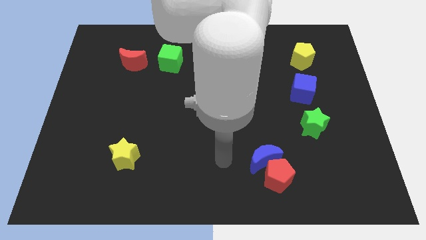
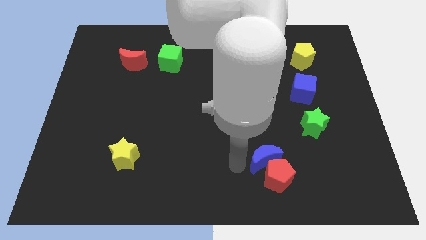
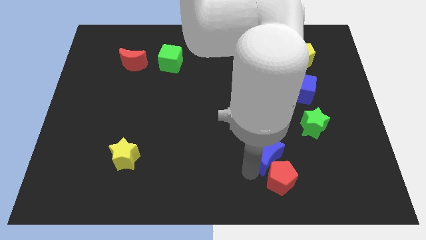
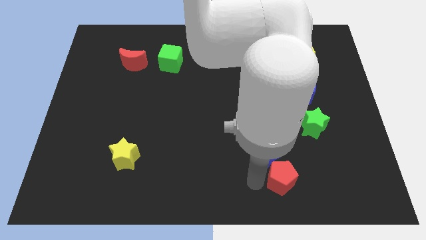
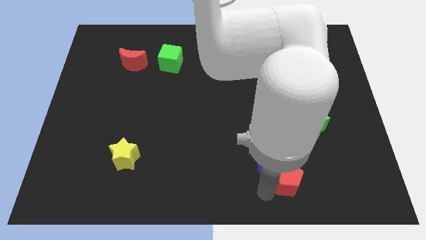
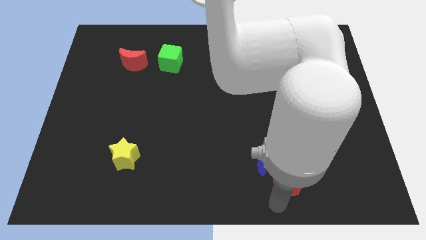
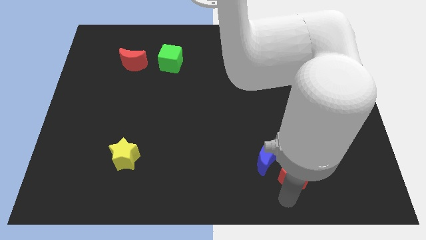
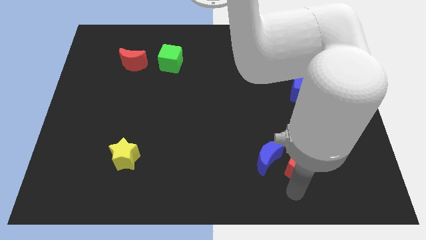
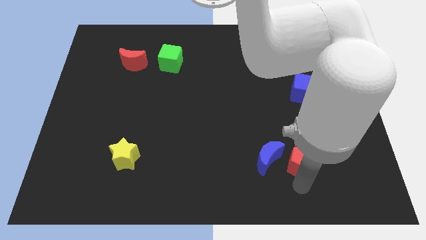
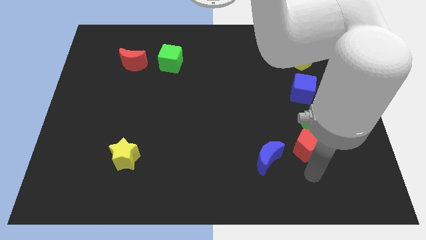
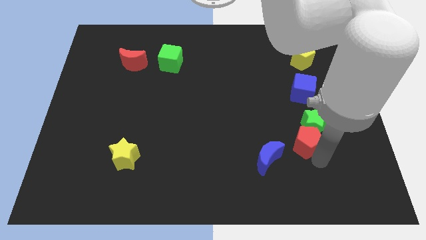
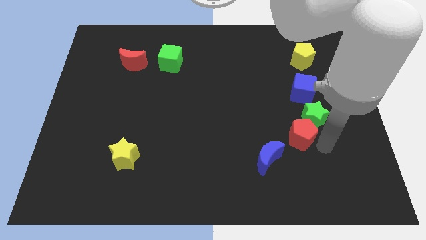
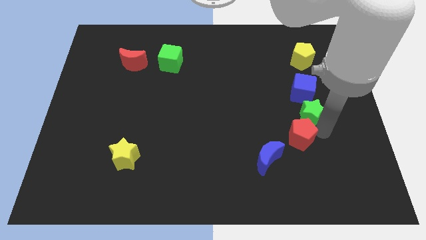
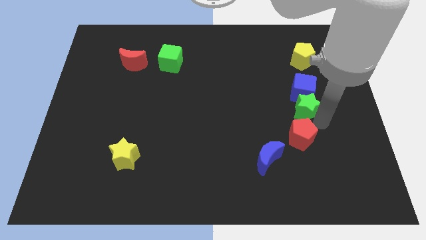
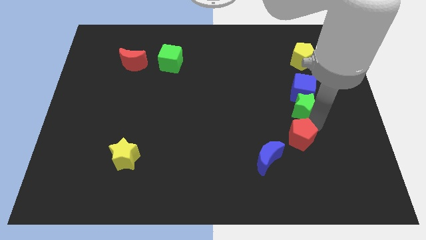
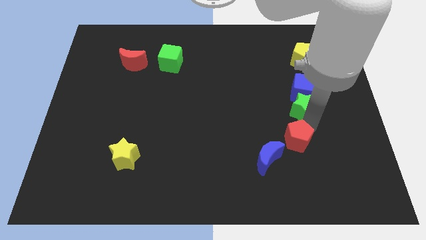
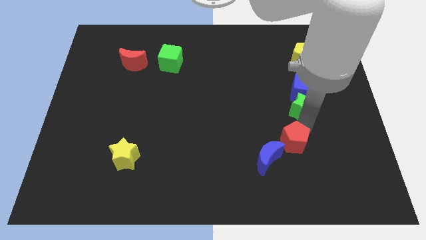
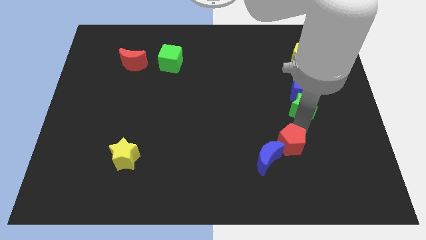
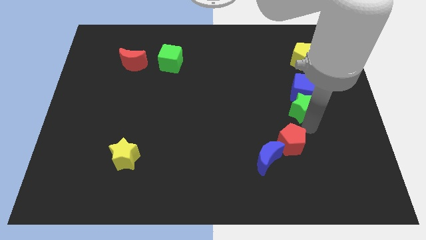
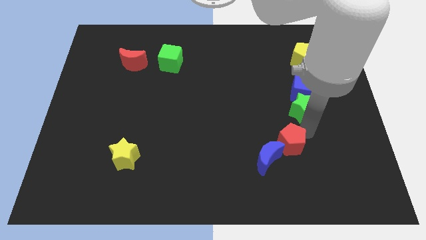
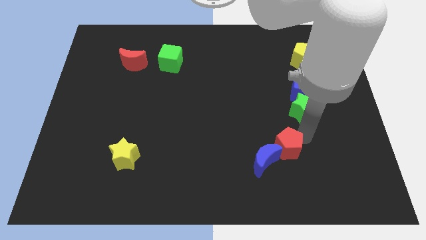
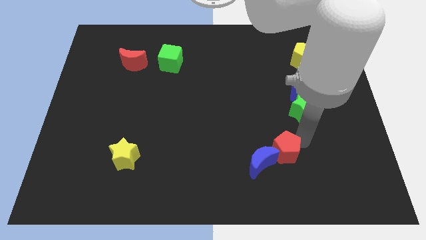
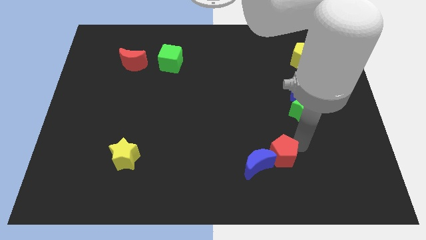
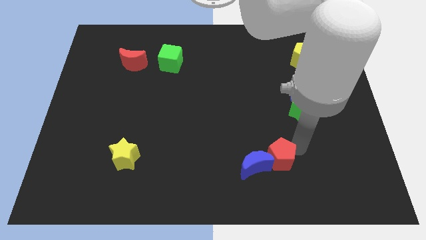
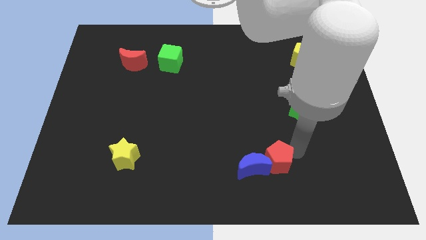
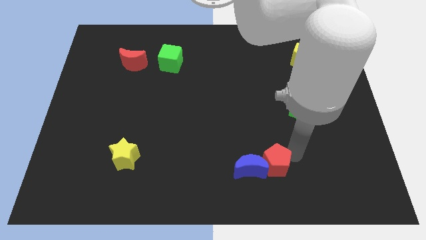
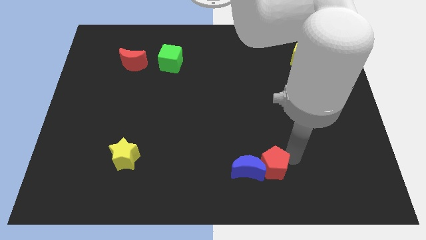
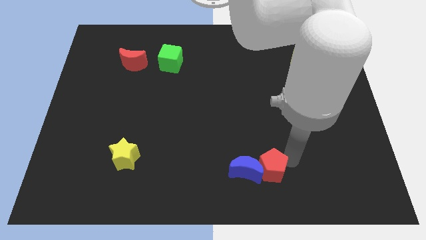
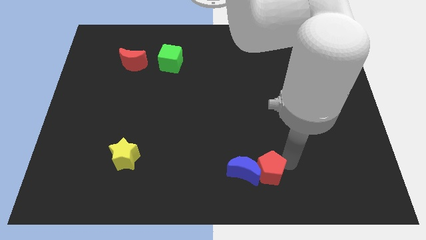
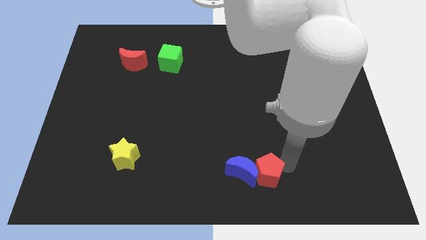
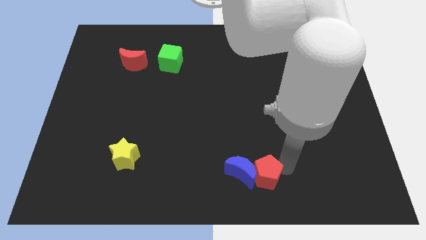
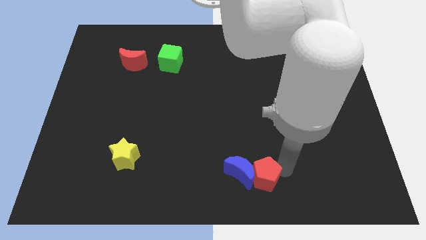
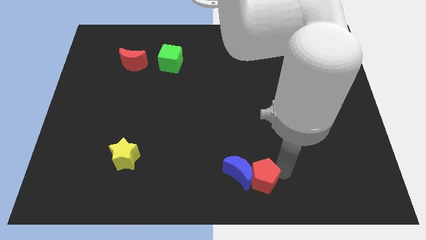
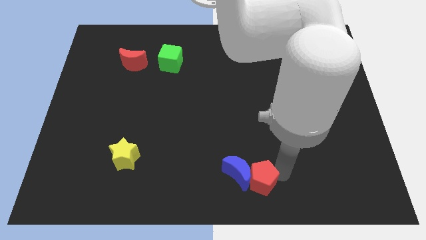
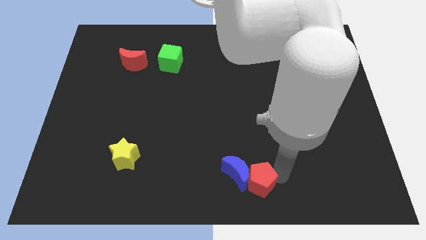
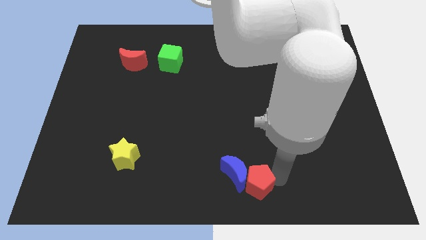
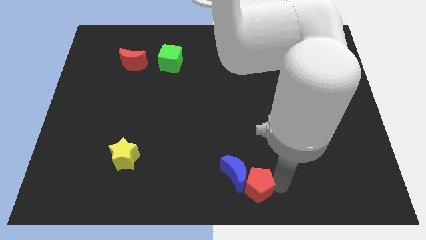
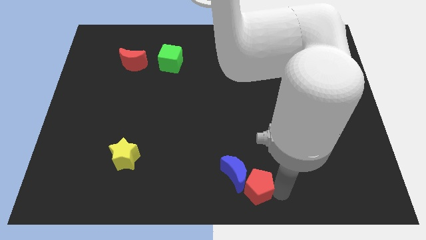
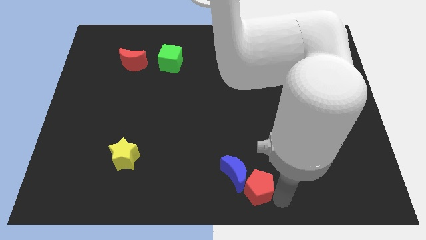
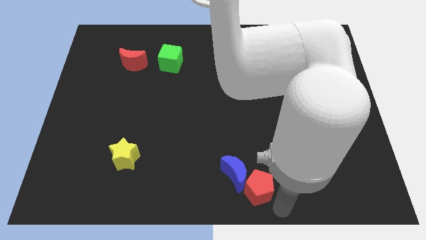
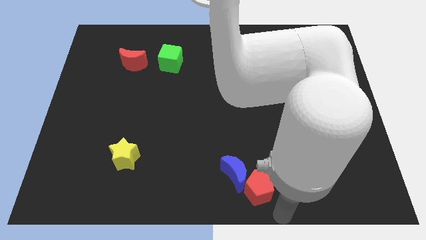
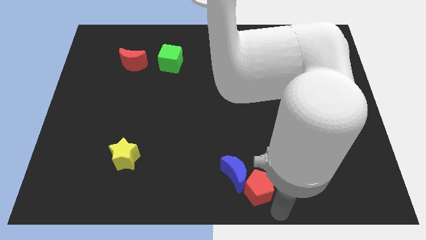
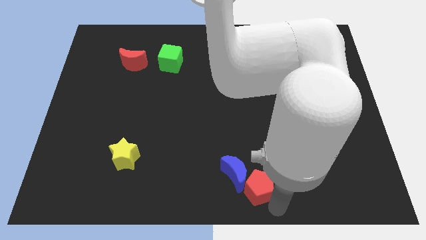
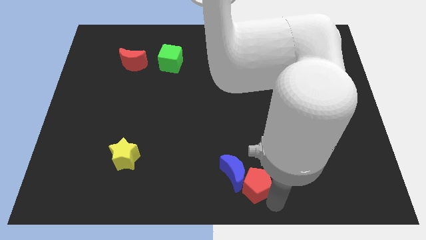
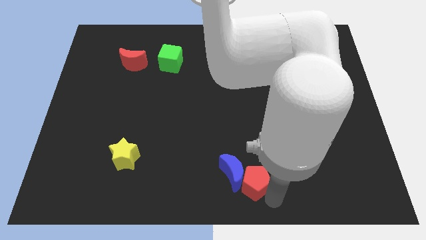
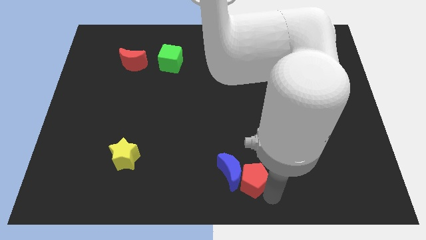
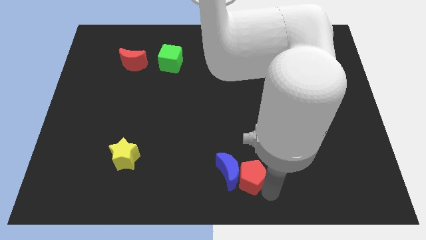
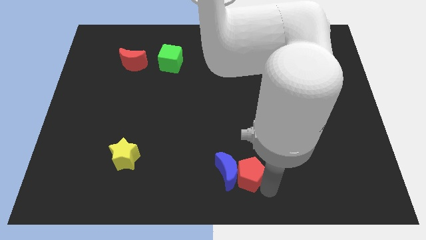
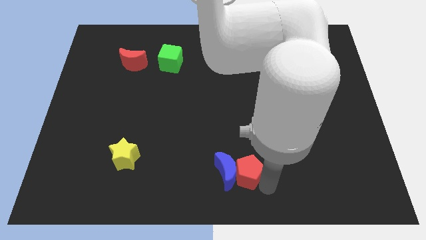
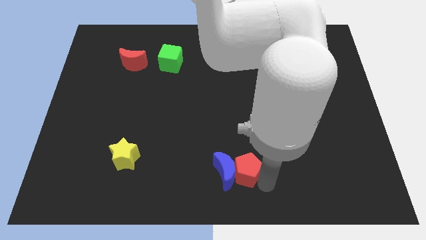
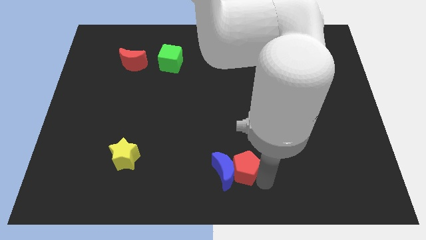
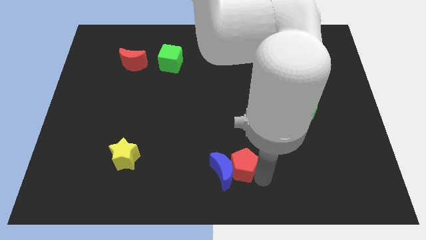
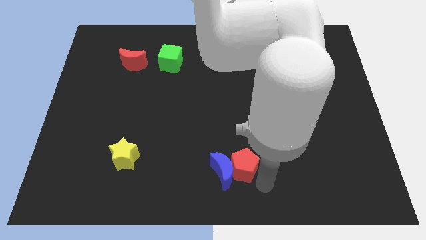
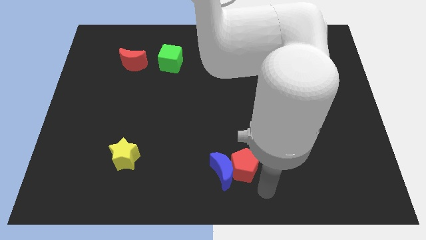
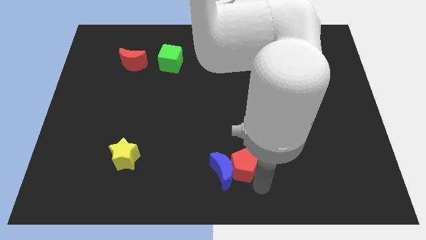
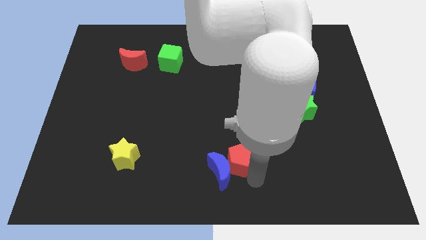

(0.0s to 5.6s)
slightly slide the red pentagon diagonally upwards and left

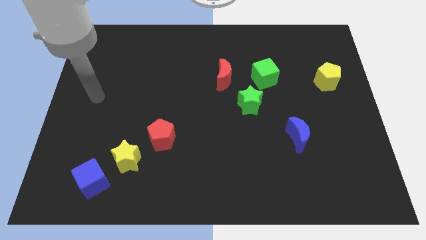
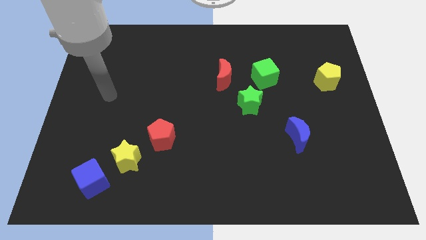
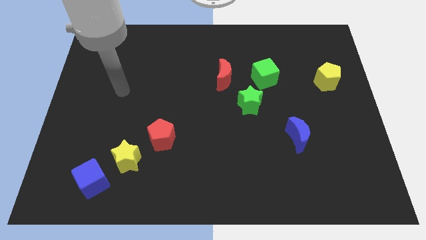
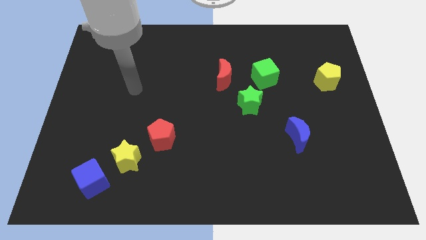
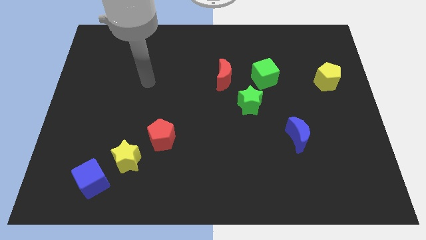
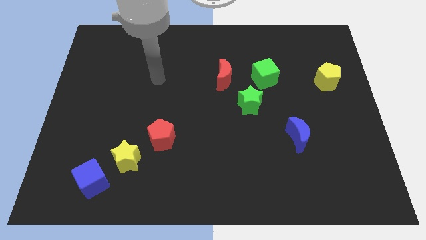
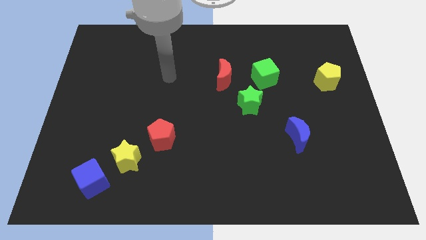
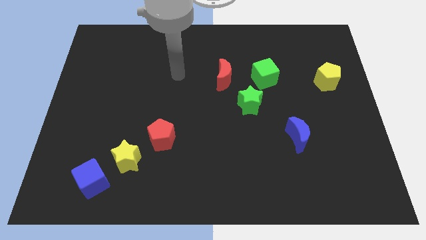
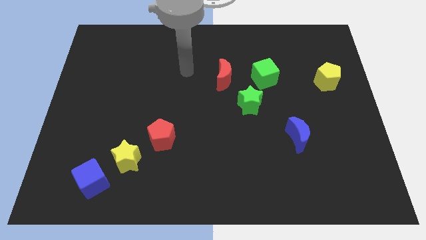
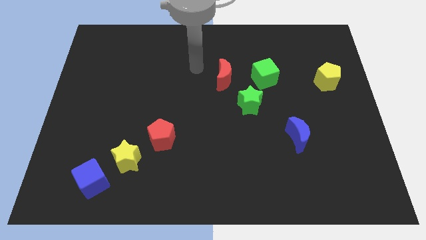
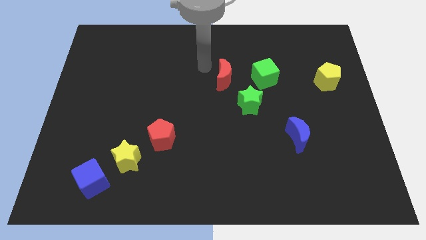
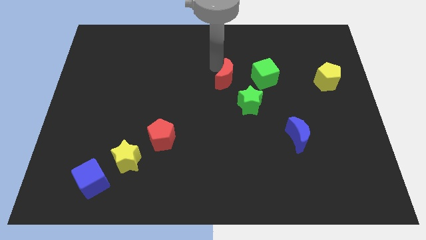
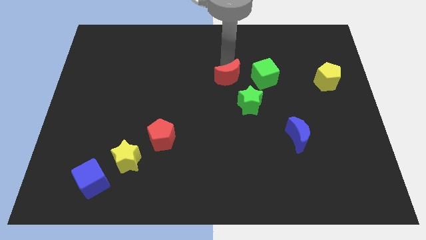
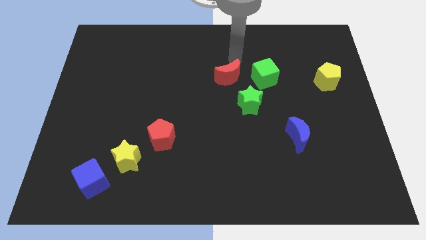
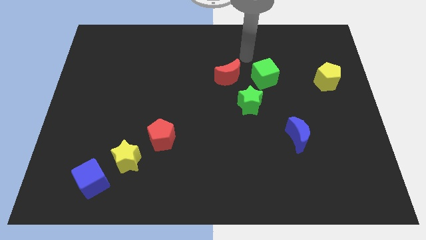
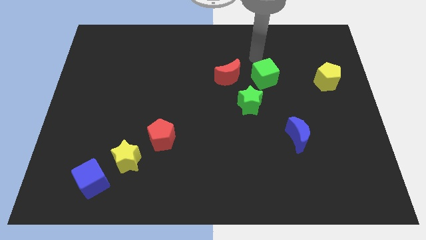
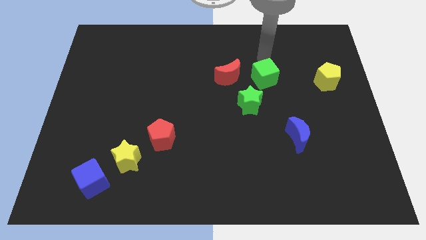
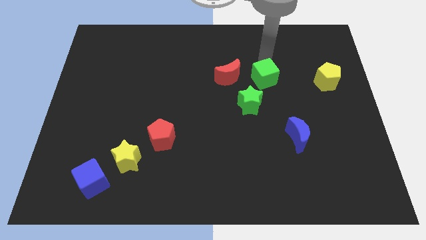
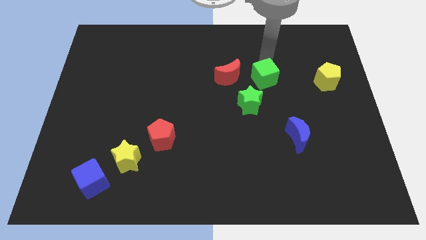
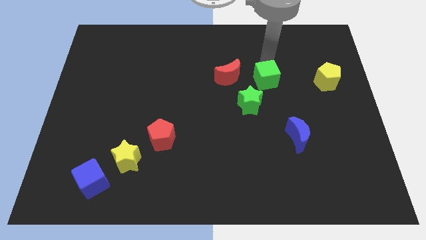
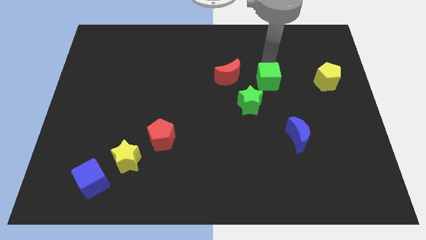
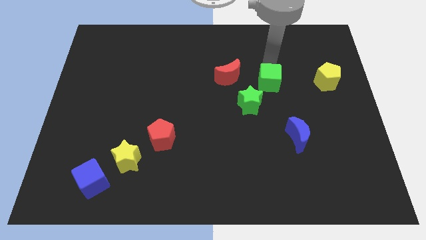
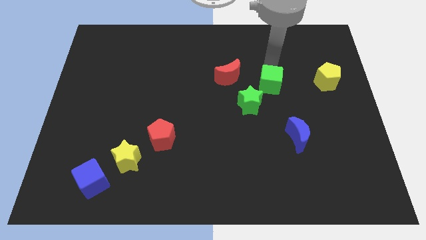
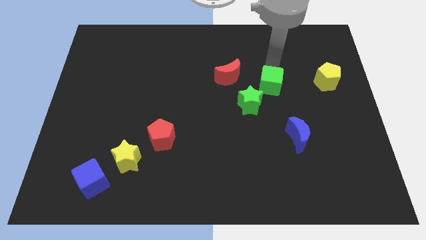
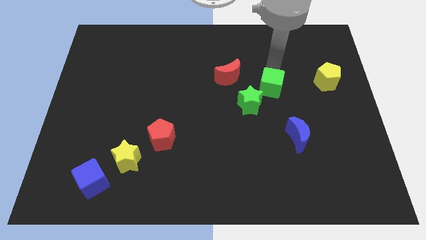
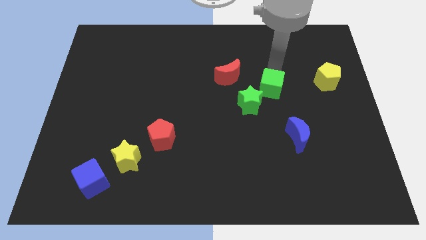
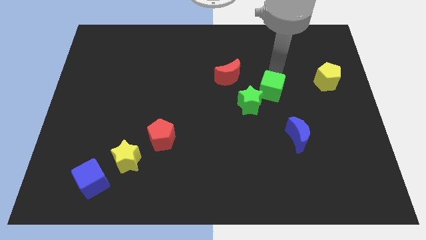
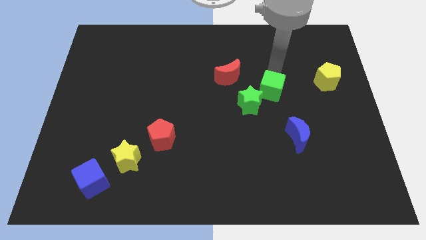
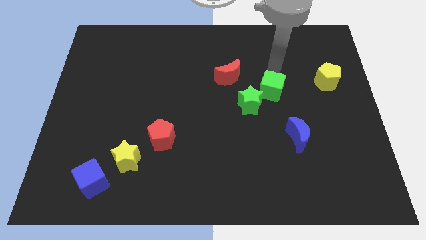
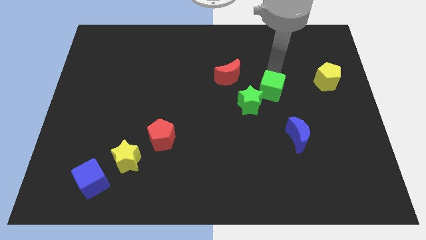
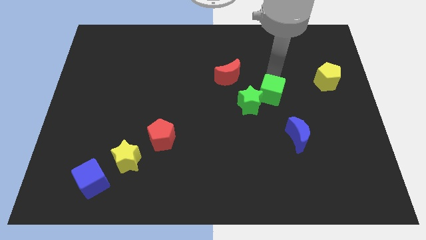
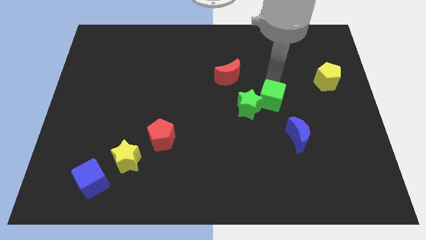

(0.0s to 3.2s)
move the green cube a little downwards
